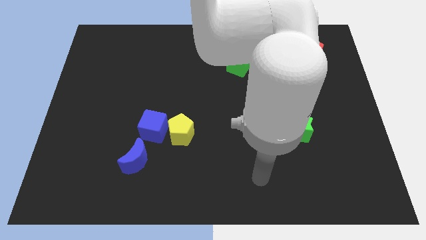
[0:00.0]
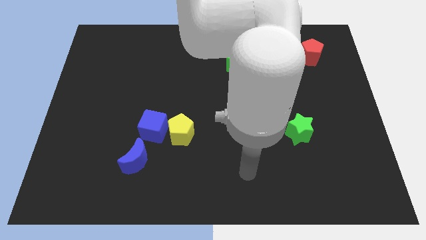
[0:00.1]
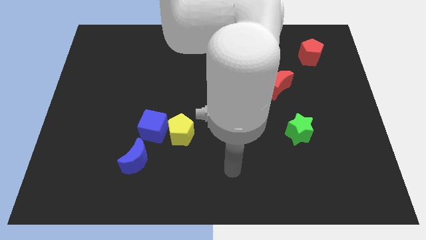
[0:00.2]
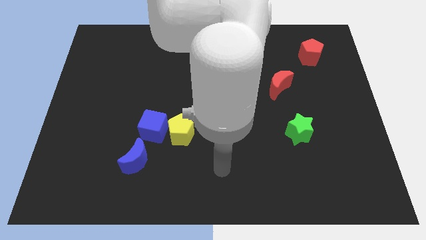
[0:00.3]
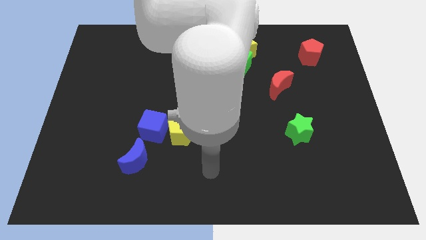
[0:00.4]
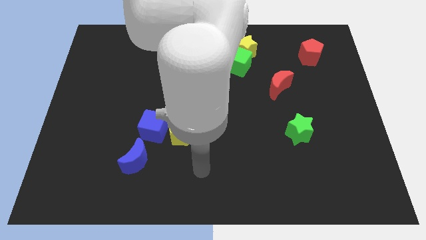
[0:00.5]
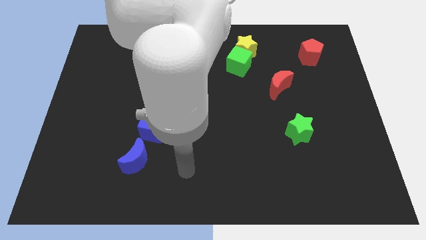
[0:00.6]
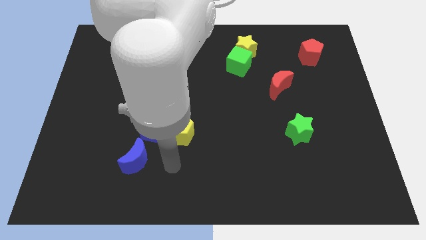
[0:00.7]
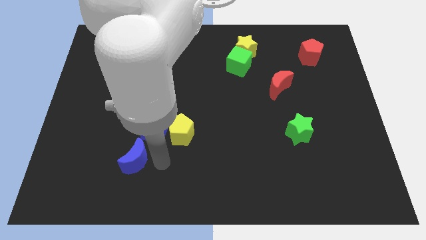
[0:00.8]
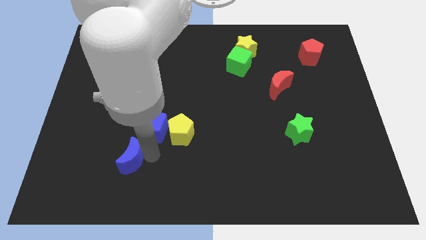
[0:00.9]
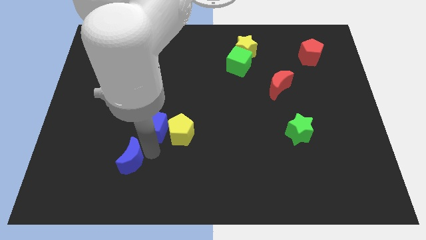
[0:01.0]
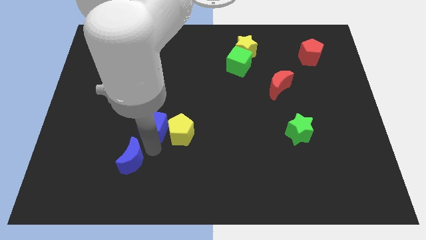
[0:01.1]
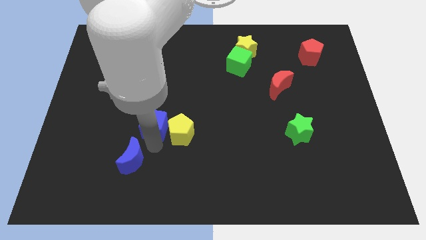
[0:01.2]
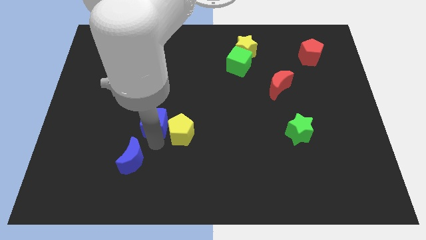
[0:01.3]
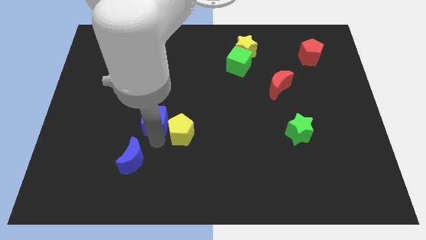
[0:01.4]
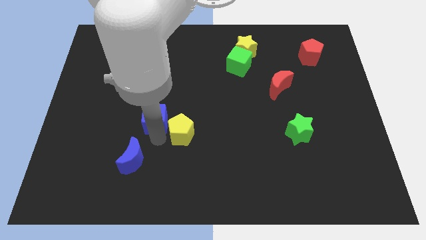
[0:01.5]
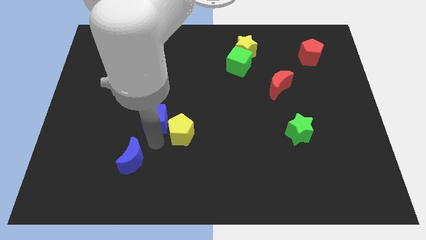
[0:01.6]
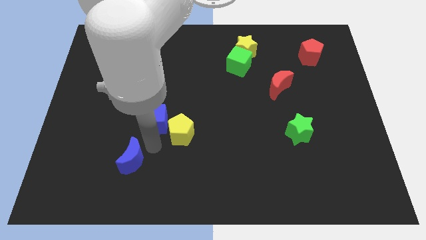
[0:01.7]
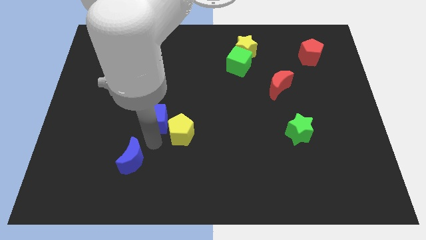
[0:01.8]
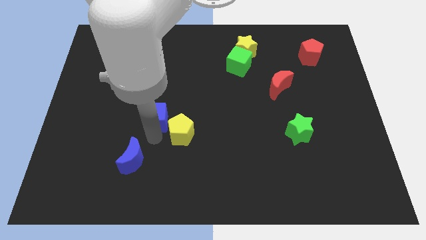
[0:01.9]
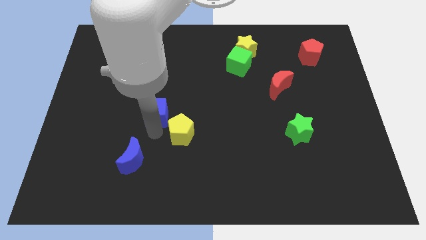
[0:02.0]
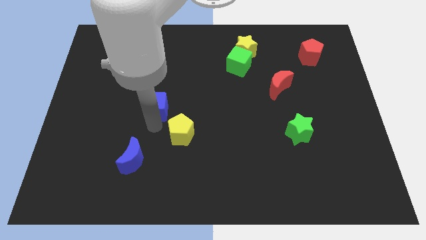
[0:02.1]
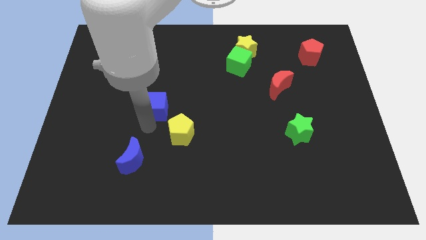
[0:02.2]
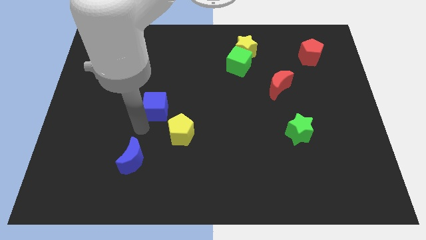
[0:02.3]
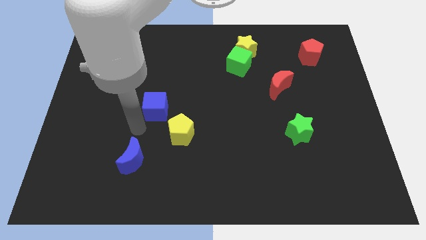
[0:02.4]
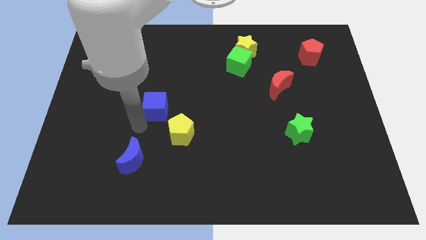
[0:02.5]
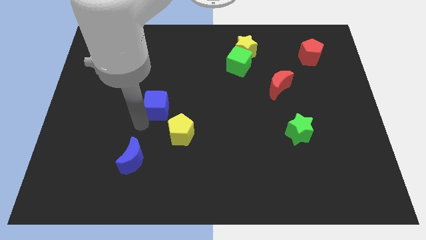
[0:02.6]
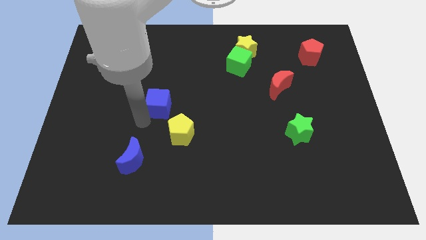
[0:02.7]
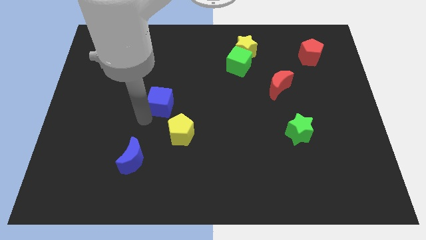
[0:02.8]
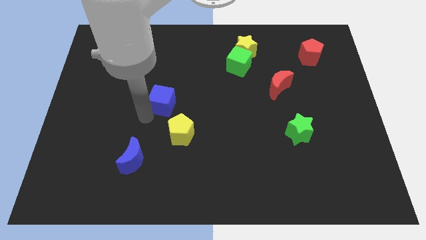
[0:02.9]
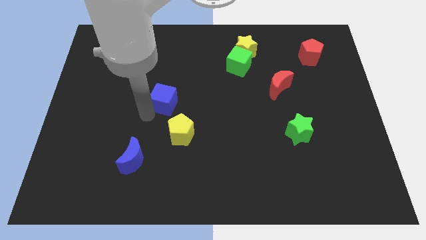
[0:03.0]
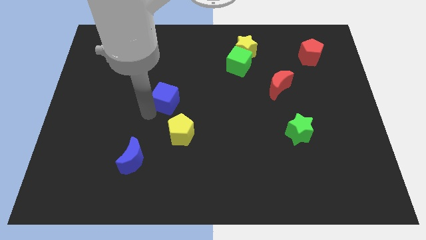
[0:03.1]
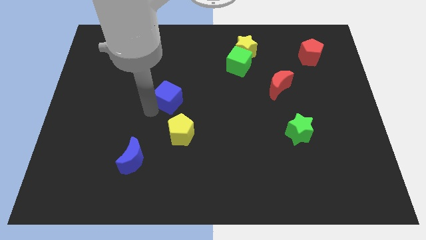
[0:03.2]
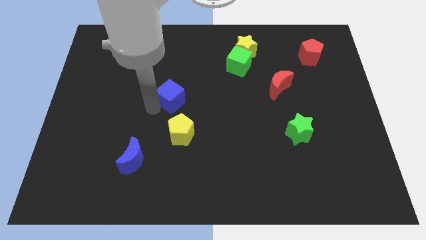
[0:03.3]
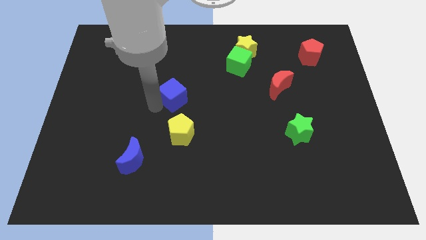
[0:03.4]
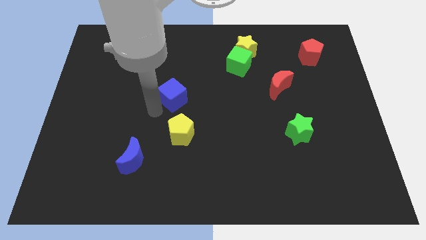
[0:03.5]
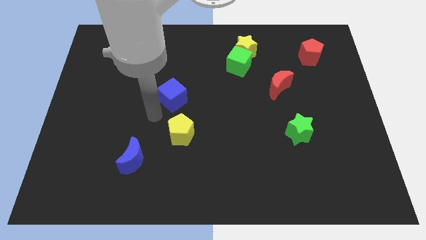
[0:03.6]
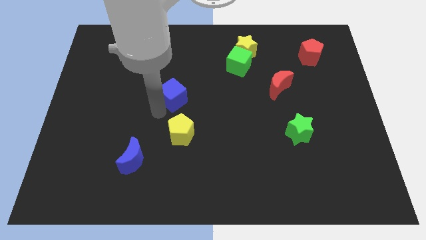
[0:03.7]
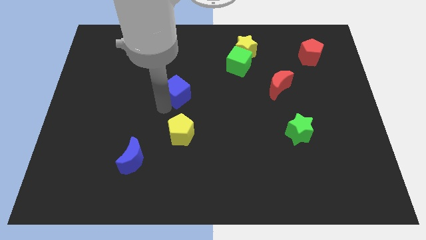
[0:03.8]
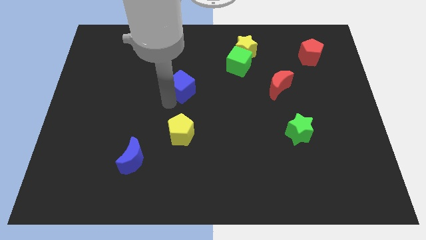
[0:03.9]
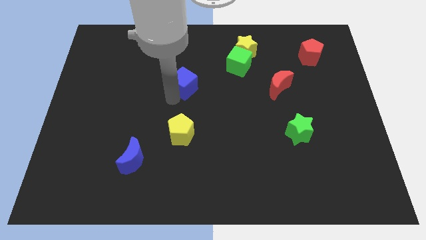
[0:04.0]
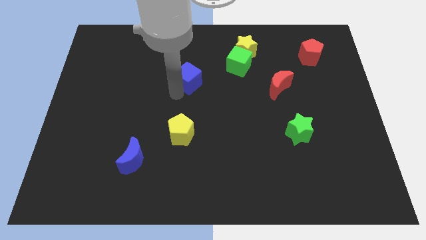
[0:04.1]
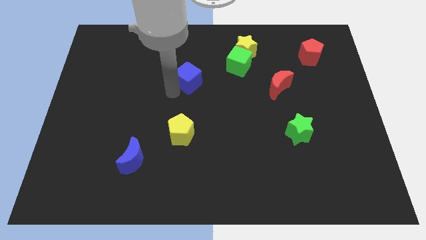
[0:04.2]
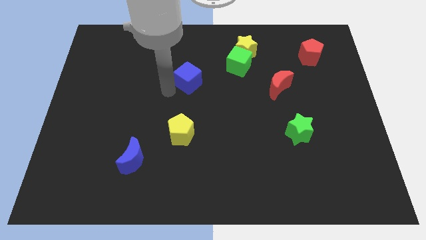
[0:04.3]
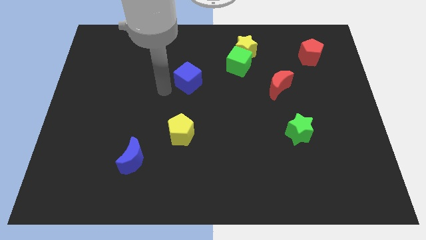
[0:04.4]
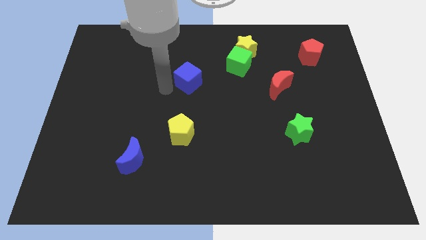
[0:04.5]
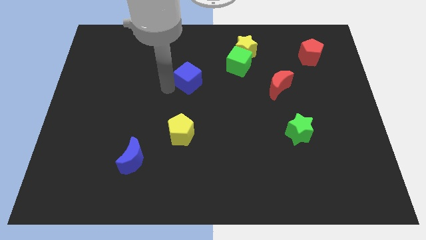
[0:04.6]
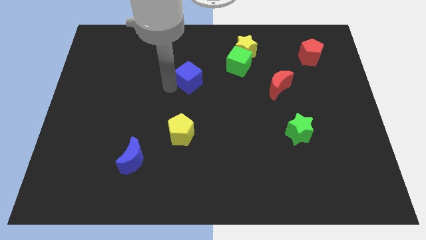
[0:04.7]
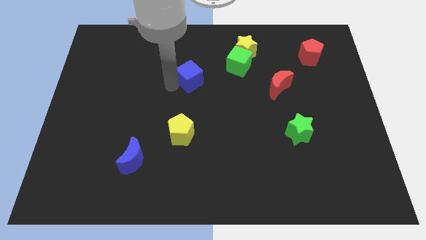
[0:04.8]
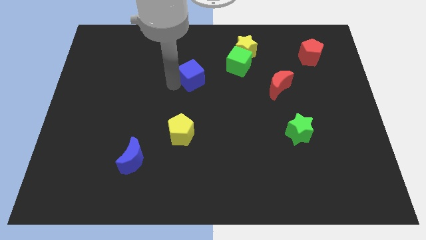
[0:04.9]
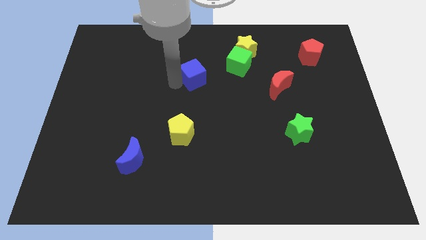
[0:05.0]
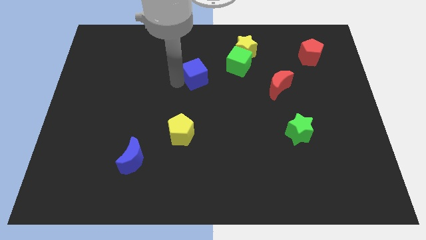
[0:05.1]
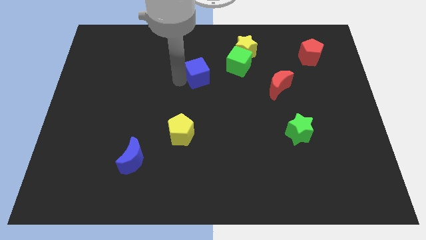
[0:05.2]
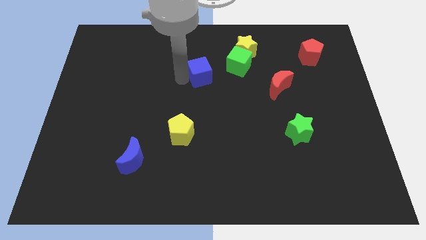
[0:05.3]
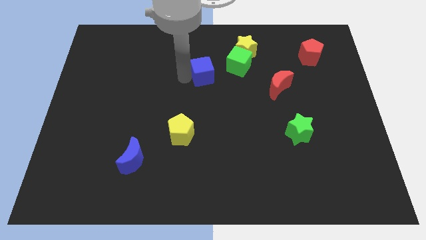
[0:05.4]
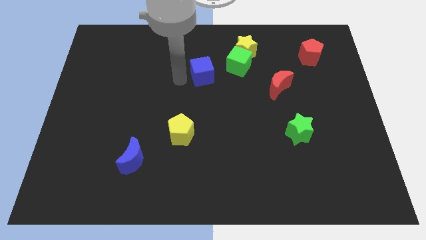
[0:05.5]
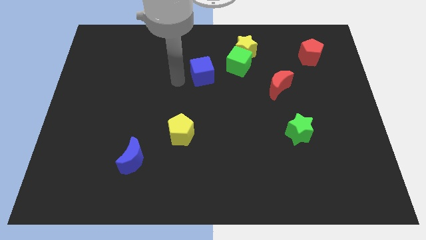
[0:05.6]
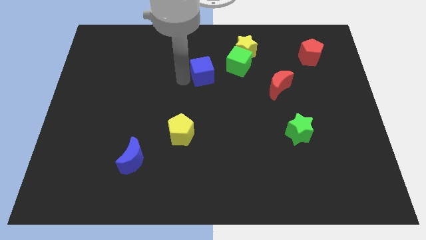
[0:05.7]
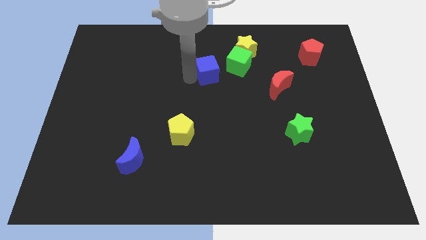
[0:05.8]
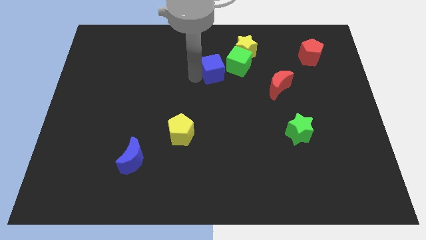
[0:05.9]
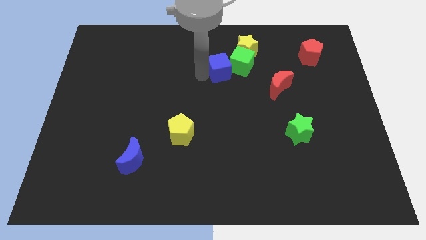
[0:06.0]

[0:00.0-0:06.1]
move the blue cube to the green cube

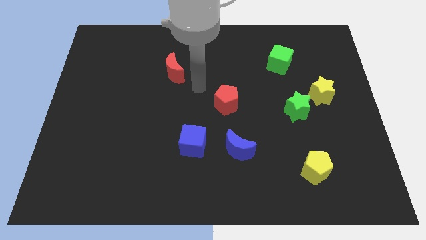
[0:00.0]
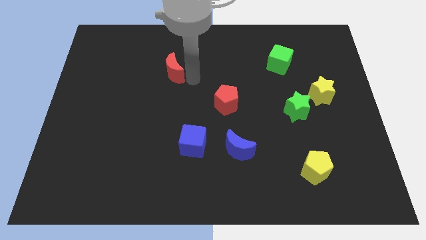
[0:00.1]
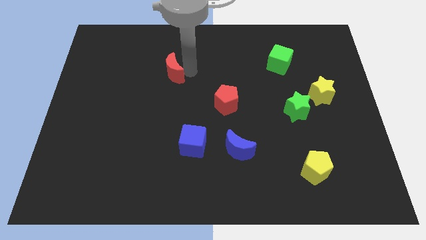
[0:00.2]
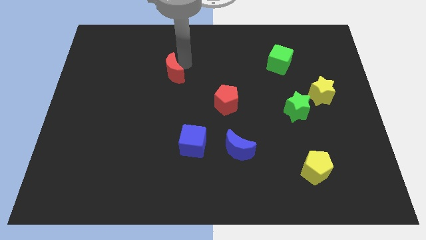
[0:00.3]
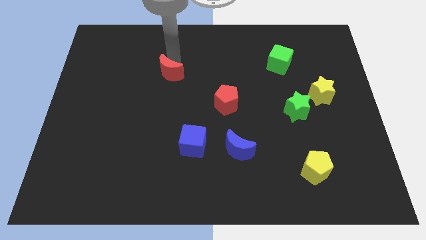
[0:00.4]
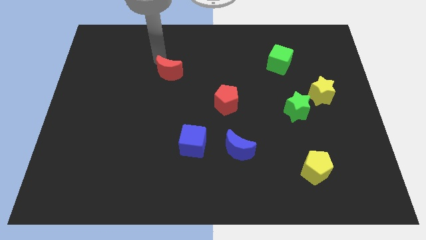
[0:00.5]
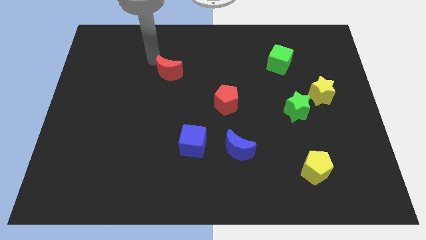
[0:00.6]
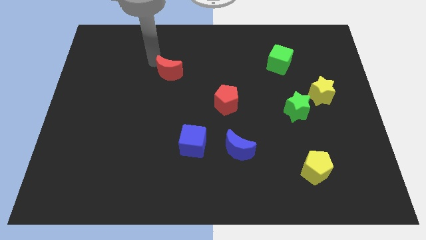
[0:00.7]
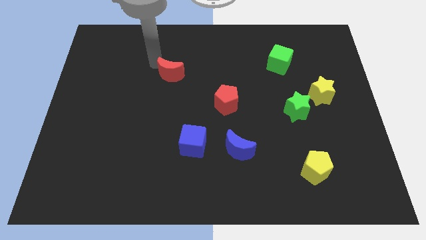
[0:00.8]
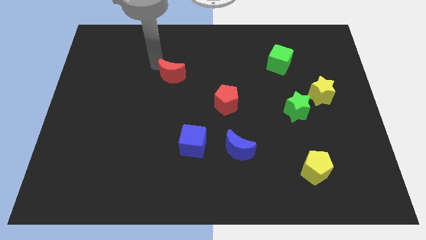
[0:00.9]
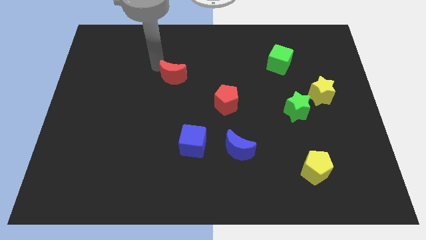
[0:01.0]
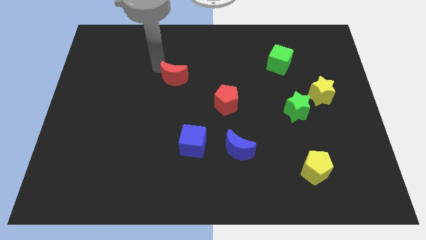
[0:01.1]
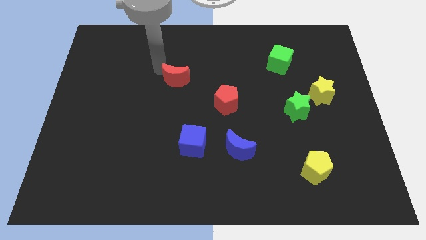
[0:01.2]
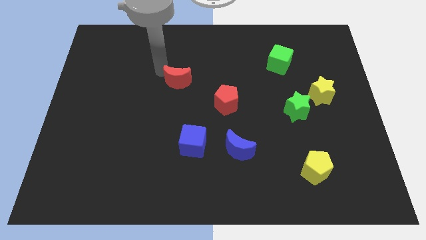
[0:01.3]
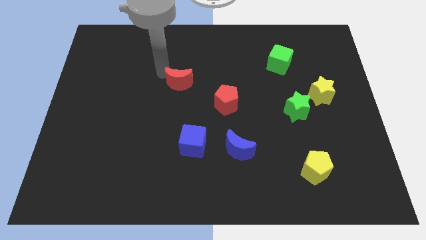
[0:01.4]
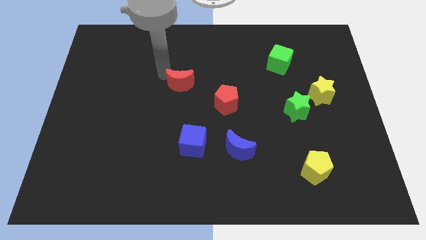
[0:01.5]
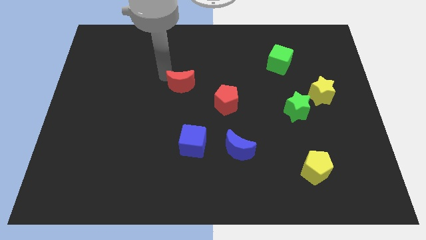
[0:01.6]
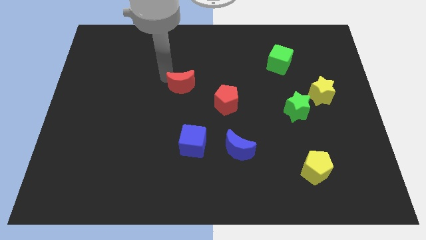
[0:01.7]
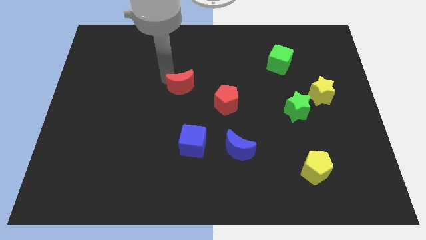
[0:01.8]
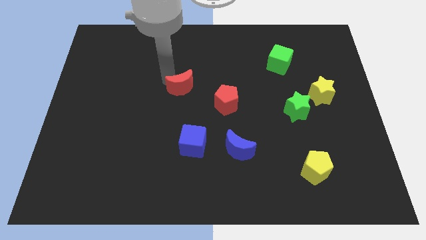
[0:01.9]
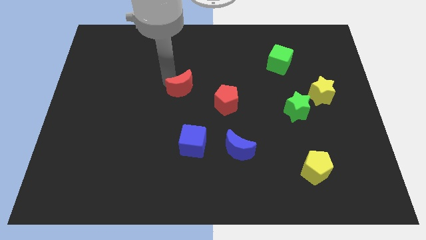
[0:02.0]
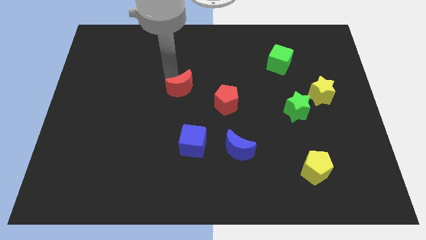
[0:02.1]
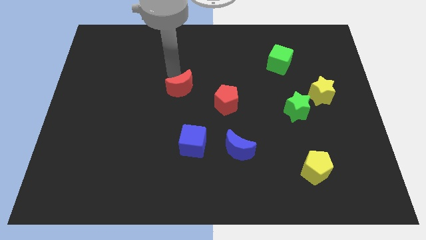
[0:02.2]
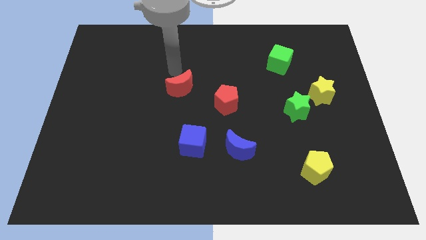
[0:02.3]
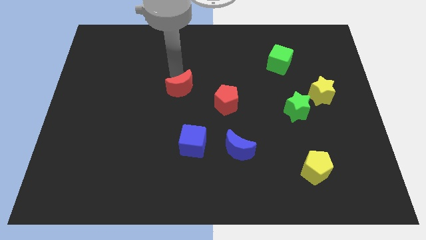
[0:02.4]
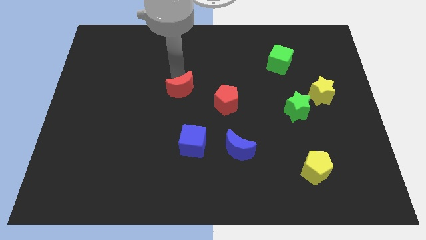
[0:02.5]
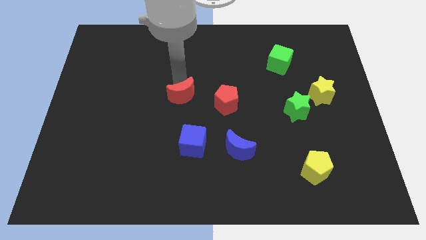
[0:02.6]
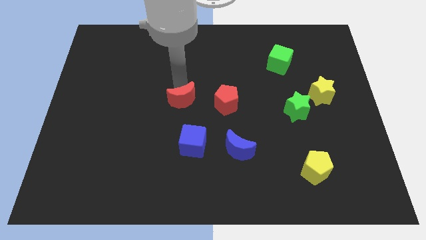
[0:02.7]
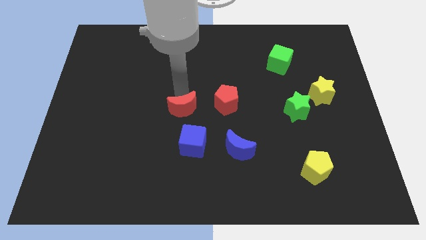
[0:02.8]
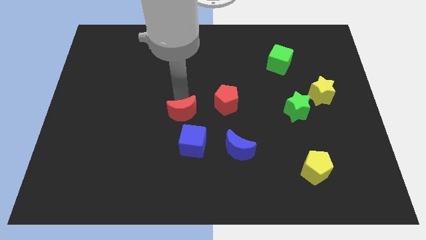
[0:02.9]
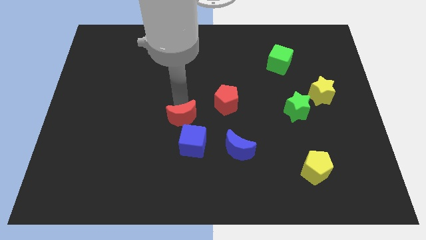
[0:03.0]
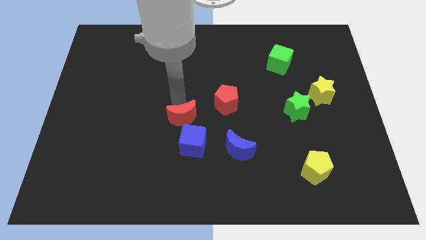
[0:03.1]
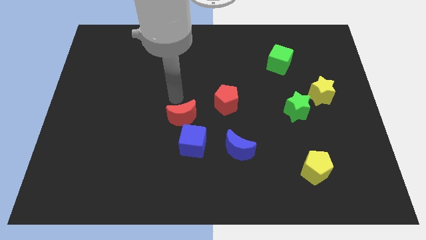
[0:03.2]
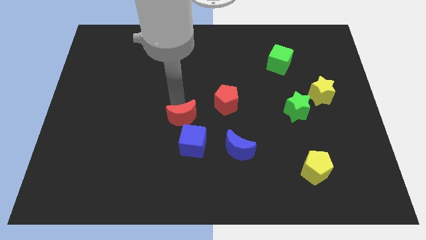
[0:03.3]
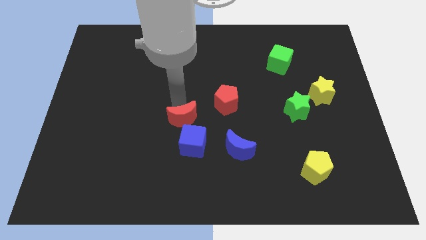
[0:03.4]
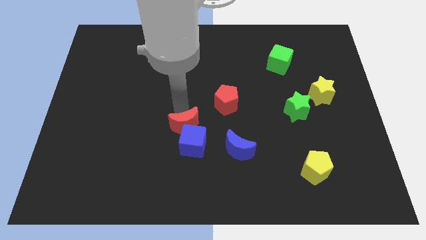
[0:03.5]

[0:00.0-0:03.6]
move the red moon close to the blue cube
